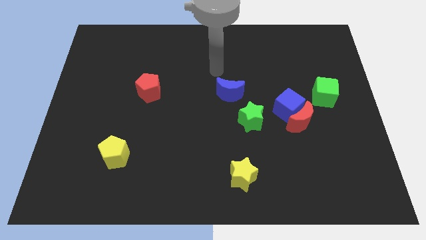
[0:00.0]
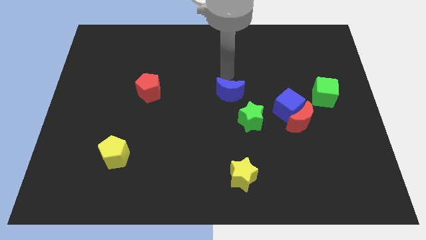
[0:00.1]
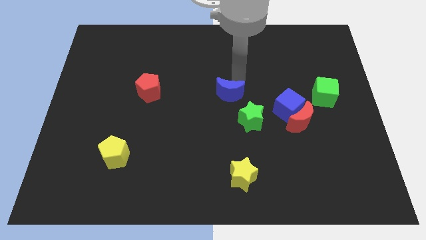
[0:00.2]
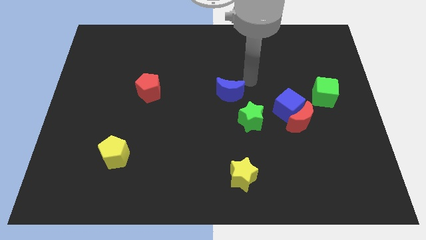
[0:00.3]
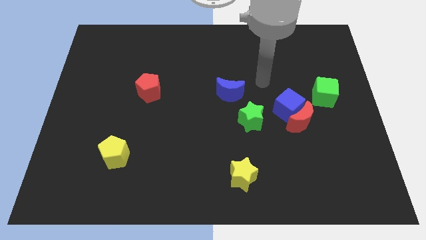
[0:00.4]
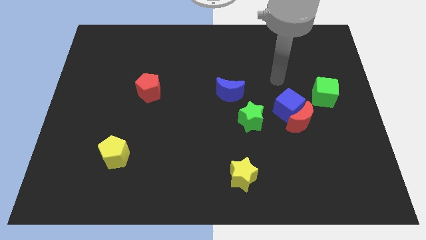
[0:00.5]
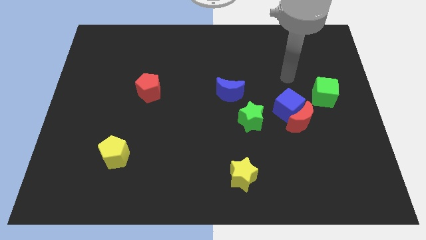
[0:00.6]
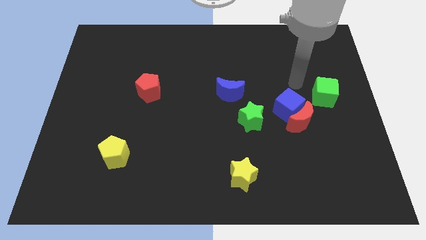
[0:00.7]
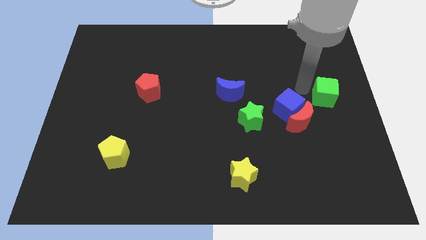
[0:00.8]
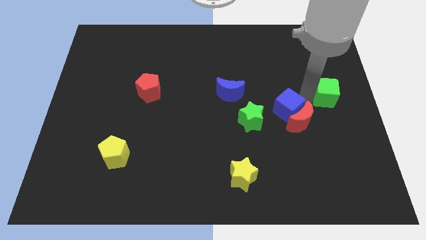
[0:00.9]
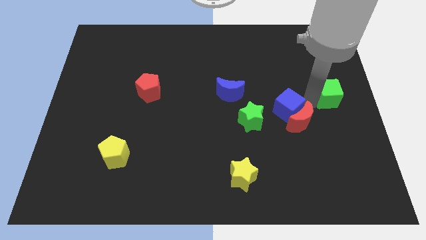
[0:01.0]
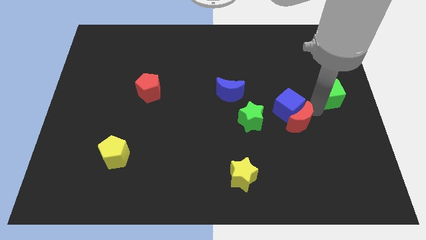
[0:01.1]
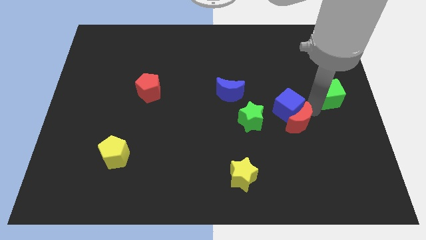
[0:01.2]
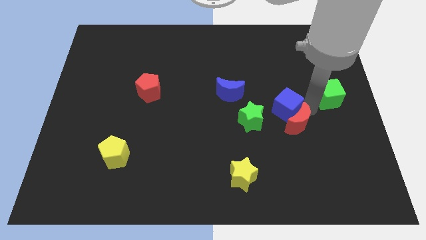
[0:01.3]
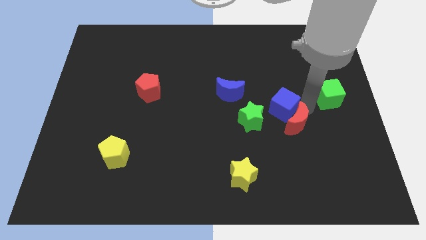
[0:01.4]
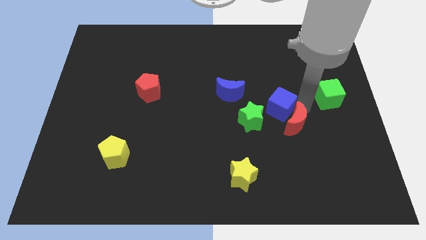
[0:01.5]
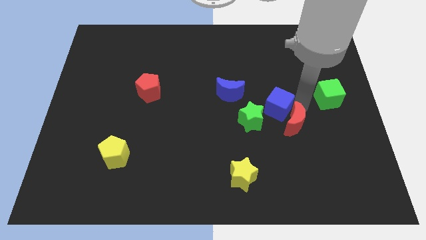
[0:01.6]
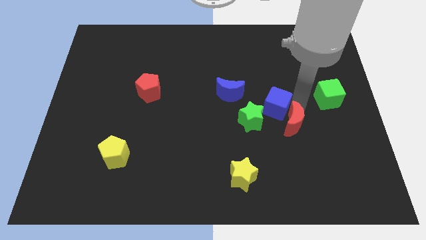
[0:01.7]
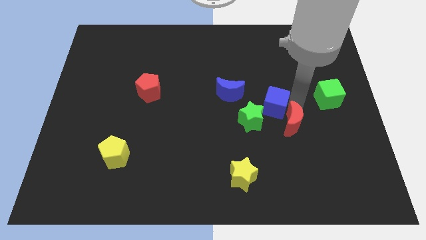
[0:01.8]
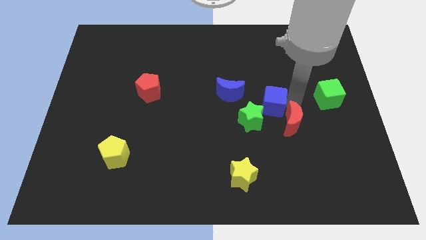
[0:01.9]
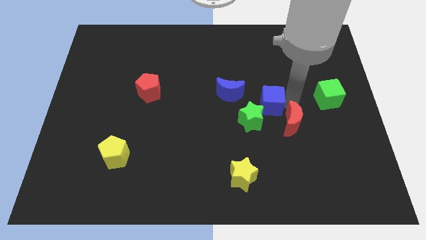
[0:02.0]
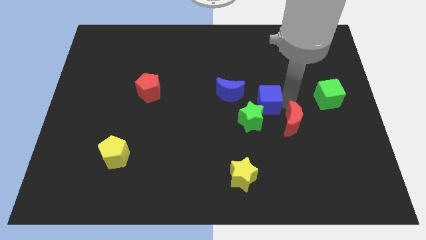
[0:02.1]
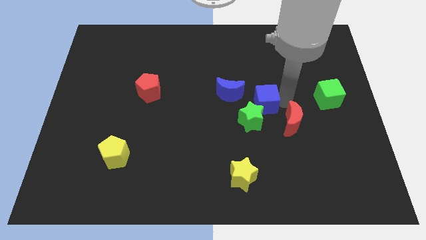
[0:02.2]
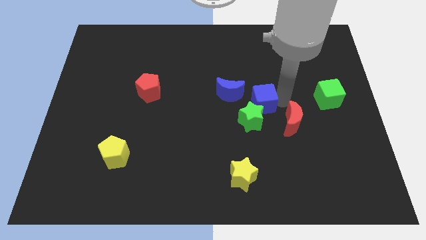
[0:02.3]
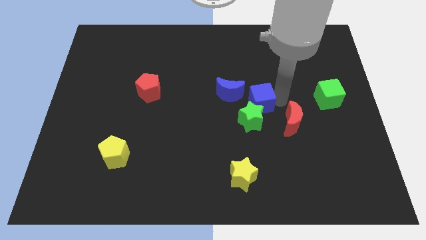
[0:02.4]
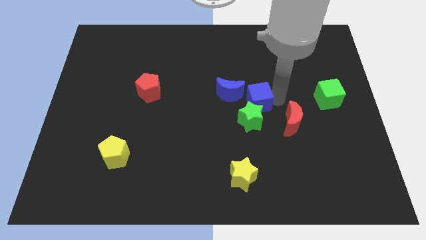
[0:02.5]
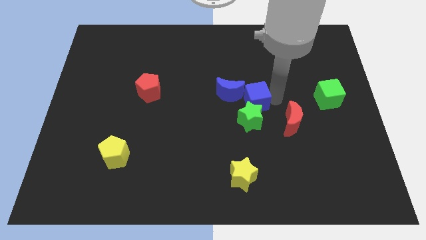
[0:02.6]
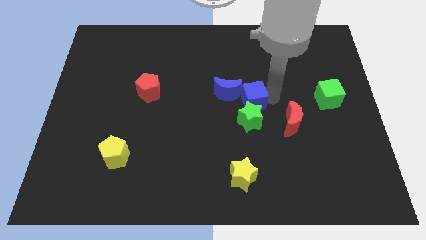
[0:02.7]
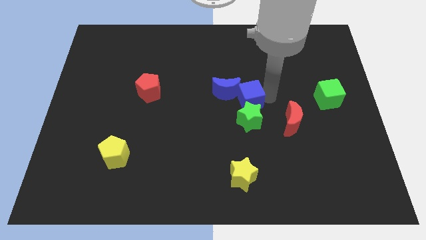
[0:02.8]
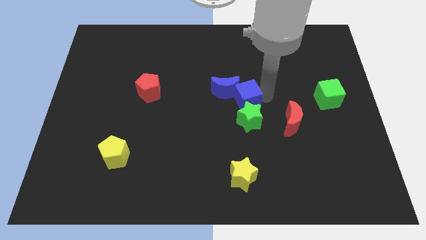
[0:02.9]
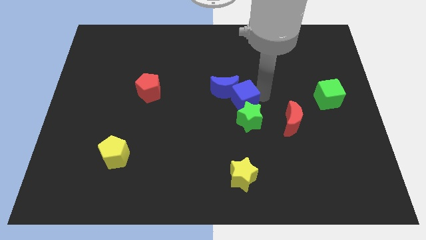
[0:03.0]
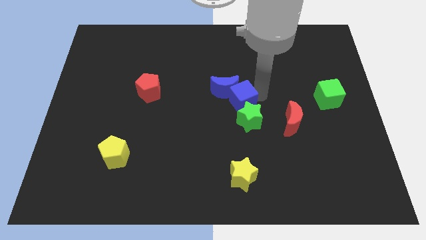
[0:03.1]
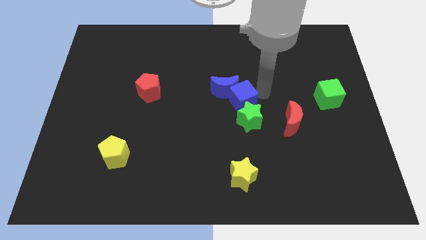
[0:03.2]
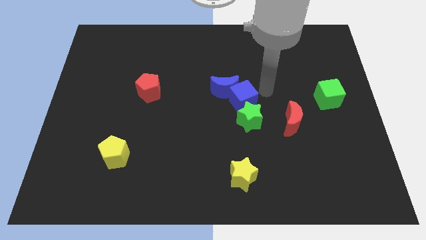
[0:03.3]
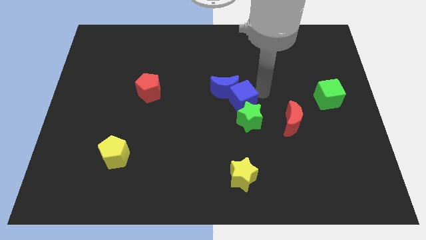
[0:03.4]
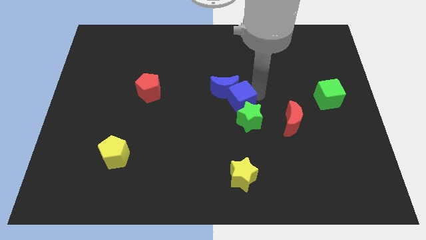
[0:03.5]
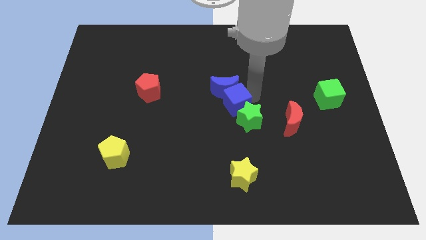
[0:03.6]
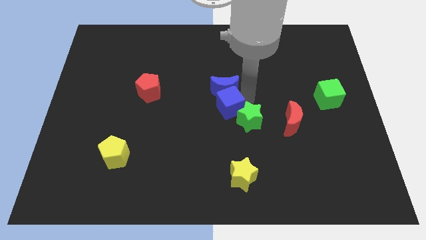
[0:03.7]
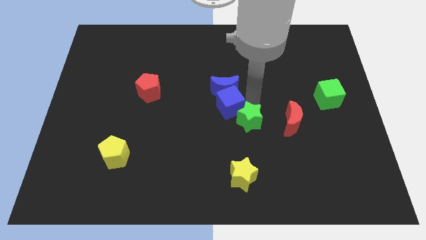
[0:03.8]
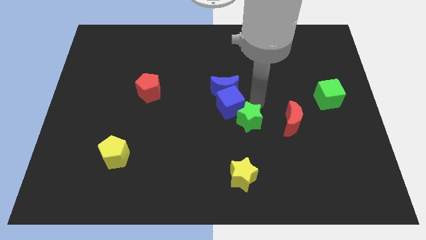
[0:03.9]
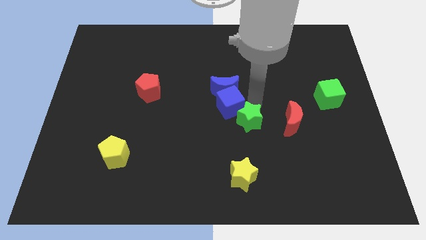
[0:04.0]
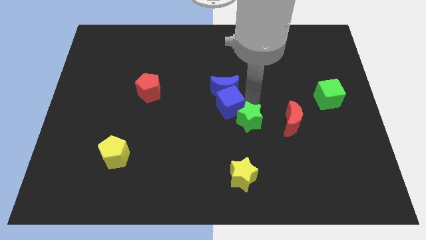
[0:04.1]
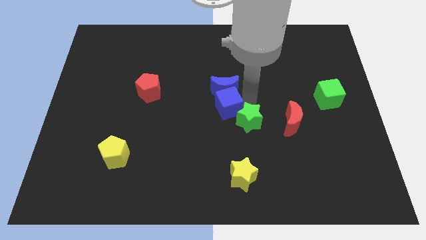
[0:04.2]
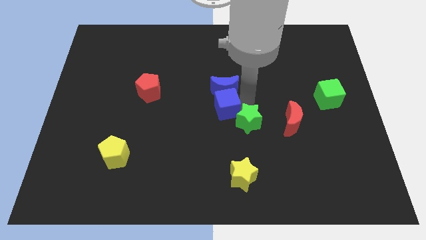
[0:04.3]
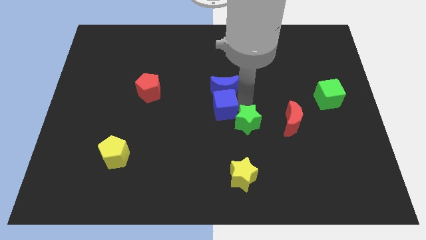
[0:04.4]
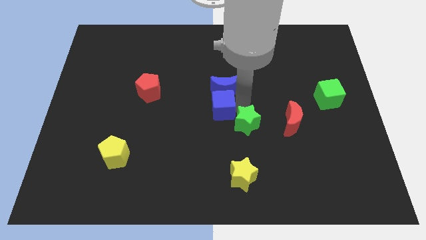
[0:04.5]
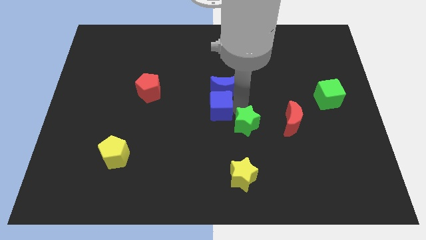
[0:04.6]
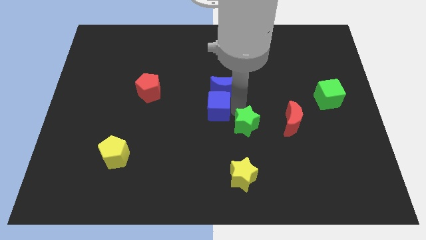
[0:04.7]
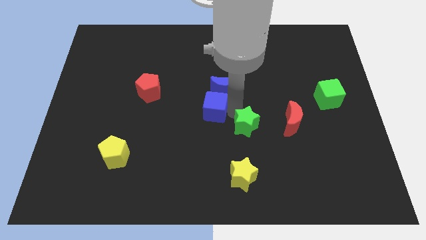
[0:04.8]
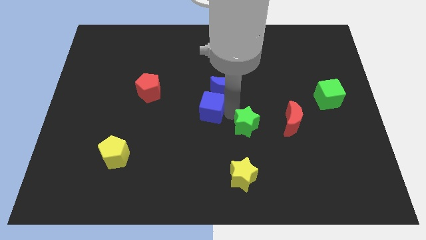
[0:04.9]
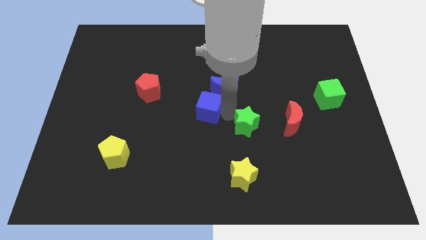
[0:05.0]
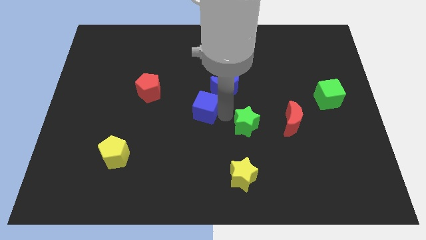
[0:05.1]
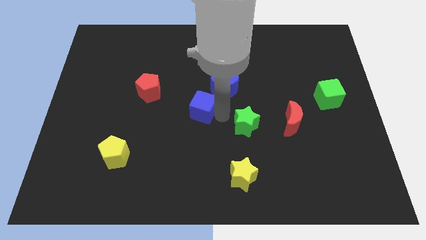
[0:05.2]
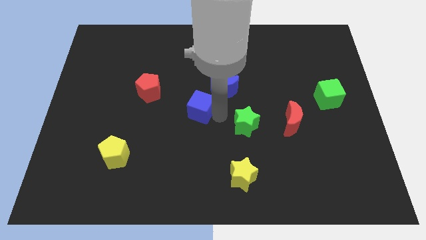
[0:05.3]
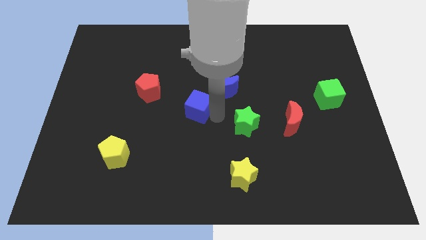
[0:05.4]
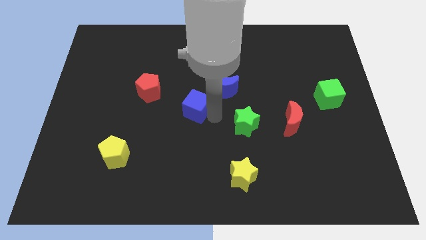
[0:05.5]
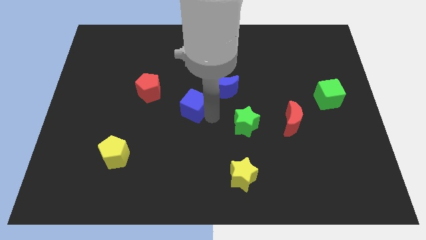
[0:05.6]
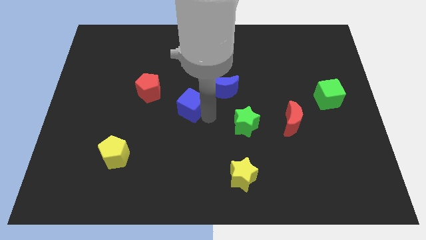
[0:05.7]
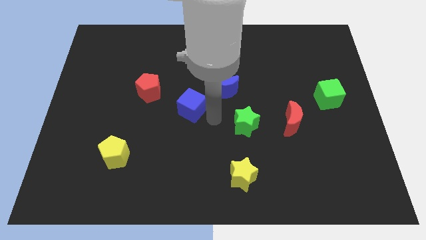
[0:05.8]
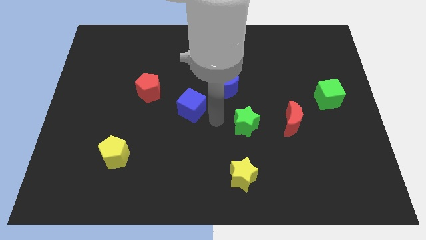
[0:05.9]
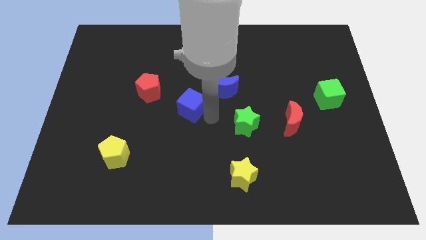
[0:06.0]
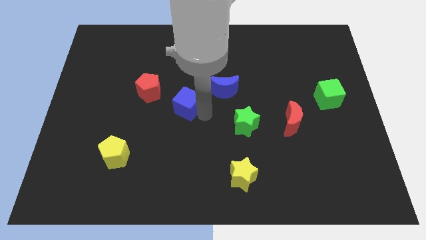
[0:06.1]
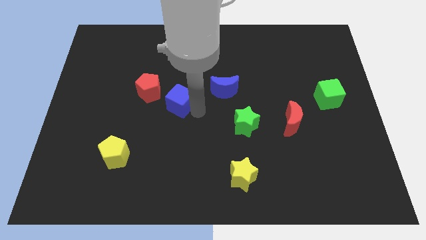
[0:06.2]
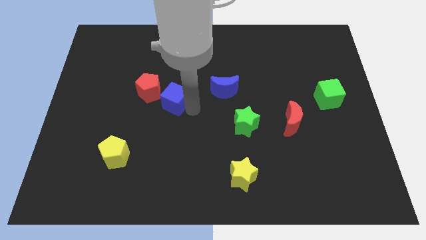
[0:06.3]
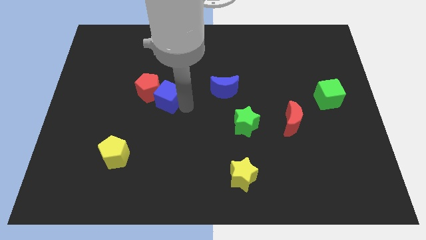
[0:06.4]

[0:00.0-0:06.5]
slide the blue cube next to the red pentagon

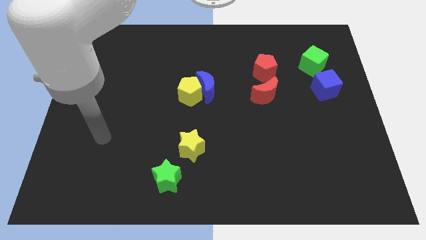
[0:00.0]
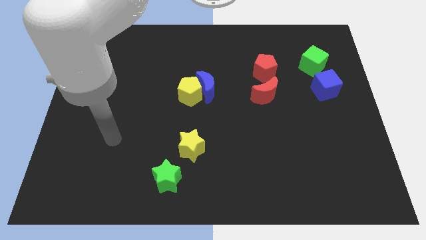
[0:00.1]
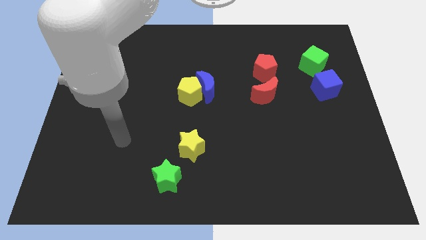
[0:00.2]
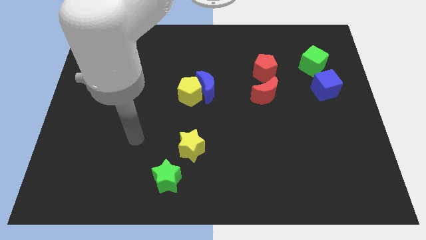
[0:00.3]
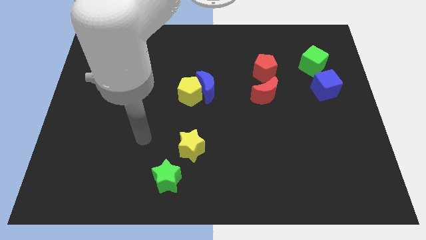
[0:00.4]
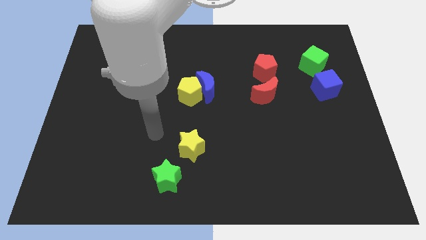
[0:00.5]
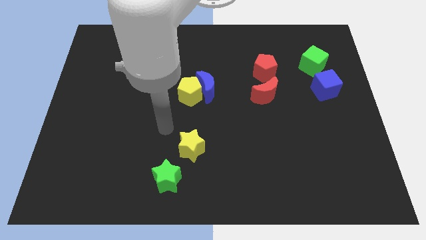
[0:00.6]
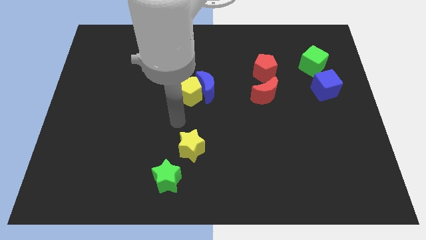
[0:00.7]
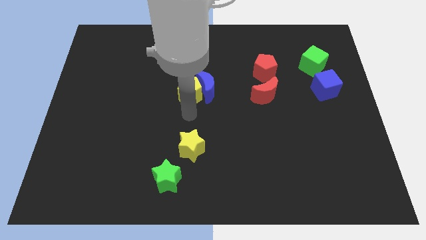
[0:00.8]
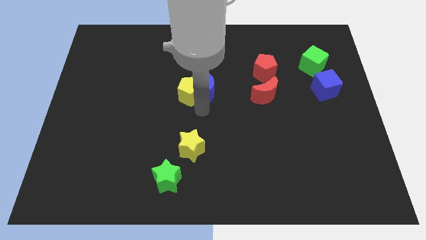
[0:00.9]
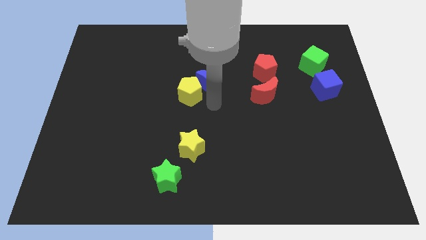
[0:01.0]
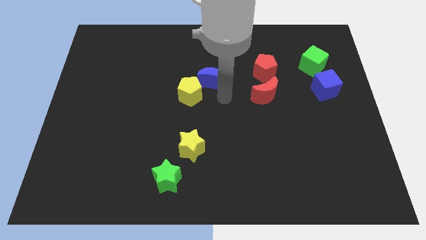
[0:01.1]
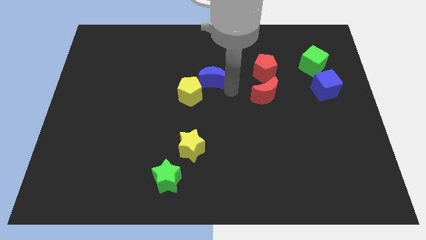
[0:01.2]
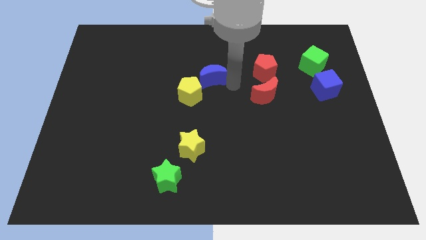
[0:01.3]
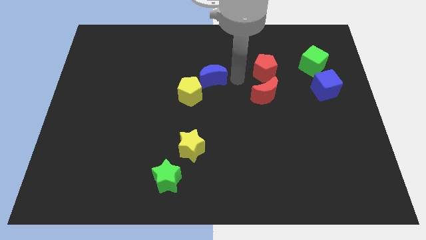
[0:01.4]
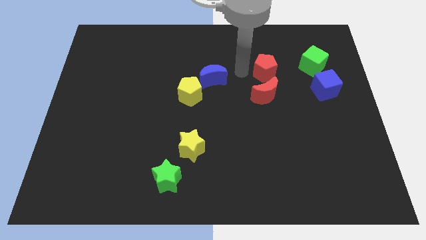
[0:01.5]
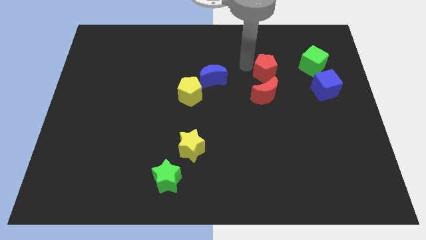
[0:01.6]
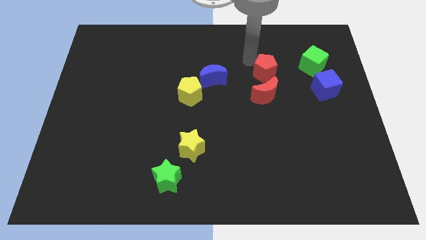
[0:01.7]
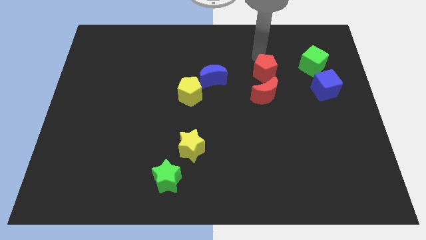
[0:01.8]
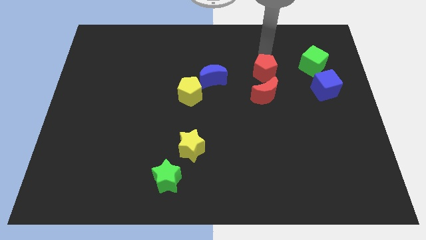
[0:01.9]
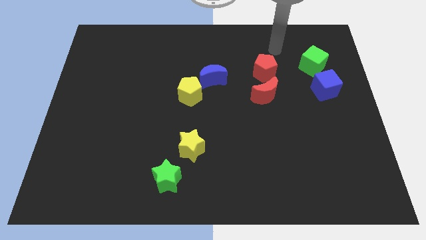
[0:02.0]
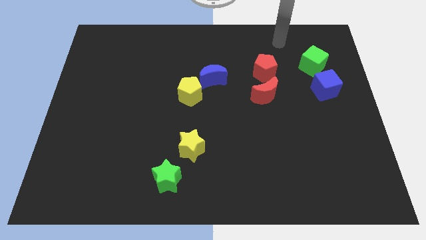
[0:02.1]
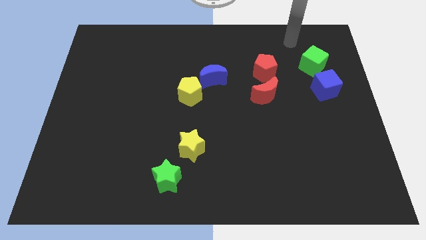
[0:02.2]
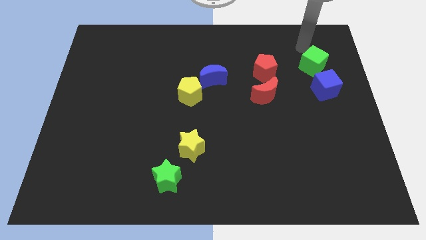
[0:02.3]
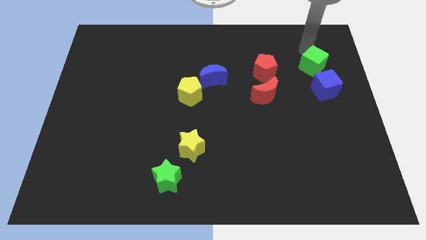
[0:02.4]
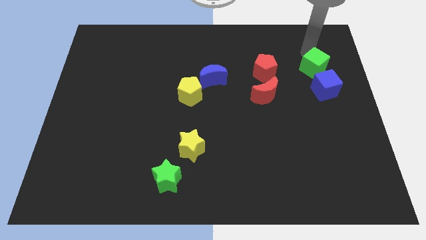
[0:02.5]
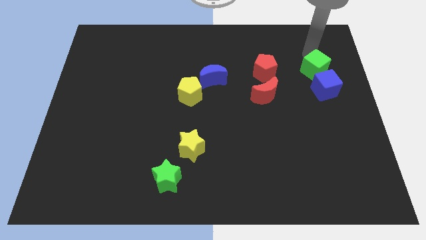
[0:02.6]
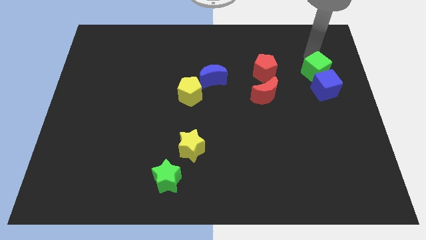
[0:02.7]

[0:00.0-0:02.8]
move the green cube next to the blue cube
